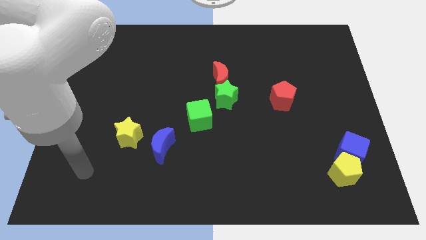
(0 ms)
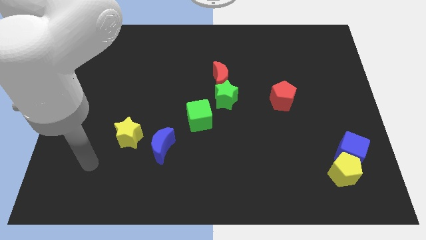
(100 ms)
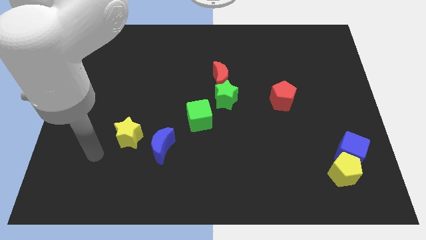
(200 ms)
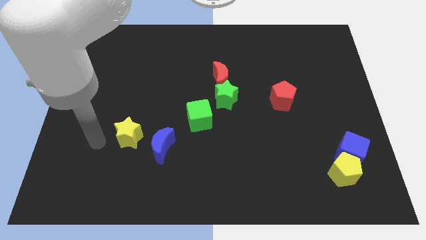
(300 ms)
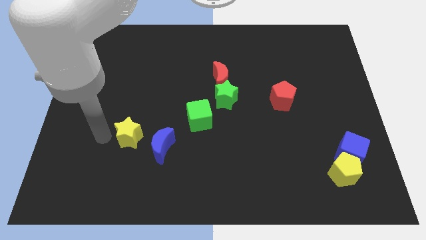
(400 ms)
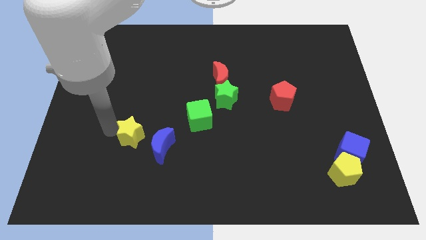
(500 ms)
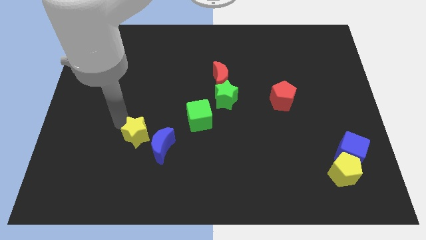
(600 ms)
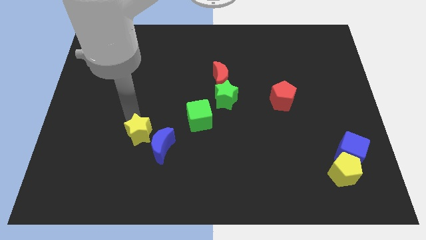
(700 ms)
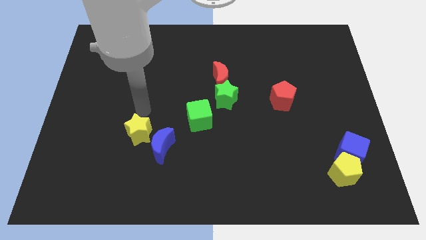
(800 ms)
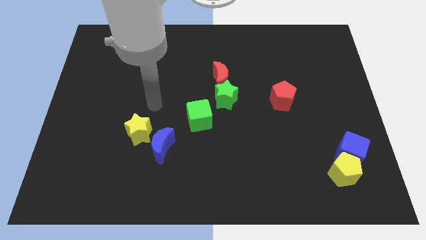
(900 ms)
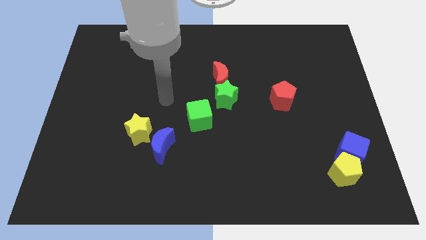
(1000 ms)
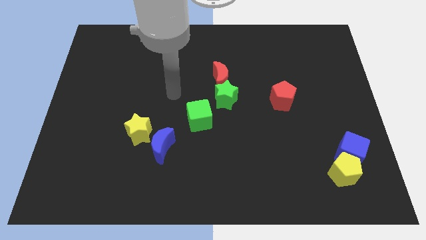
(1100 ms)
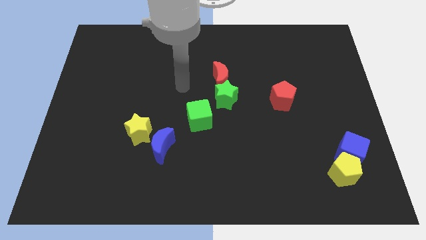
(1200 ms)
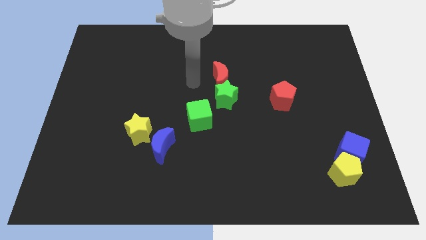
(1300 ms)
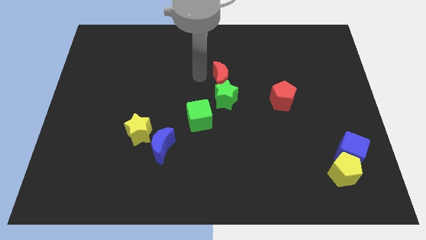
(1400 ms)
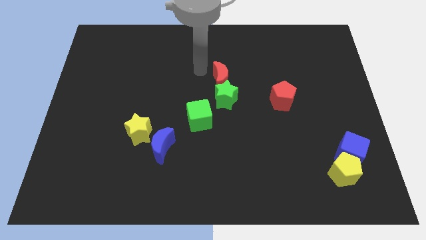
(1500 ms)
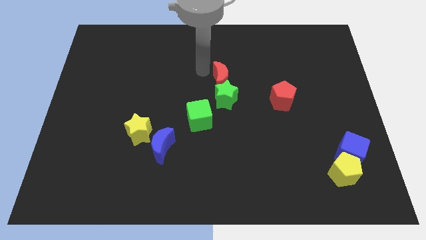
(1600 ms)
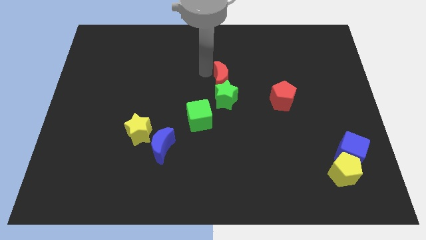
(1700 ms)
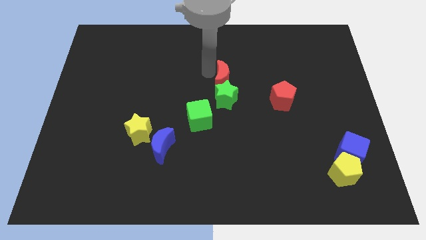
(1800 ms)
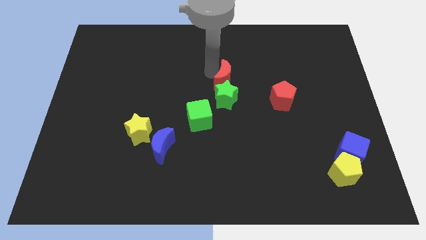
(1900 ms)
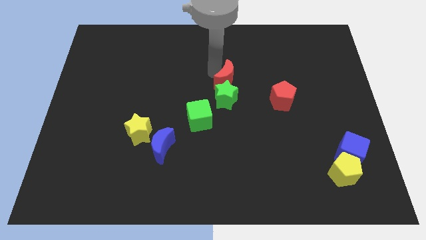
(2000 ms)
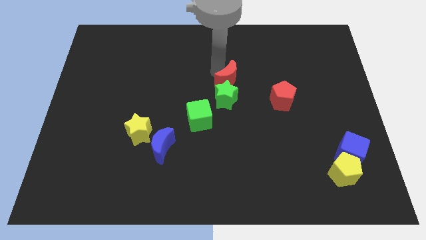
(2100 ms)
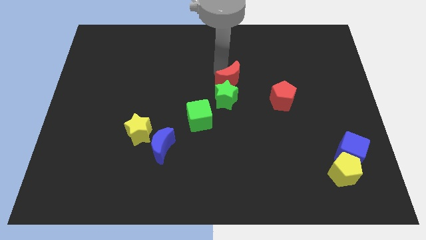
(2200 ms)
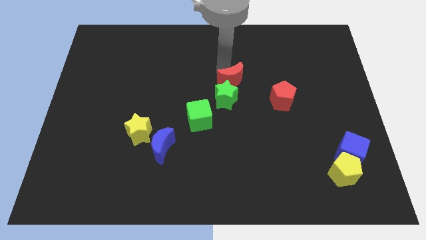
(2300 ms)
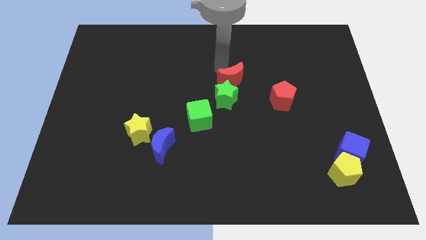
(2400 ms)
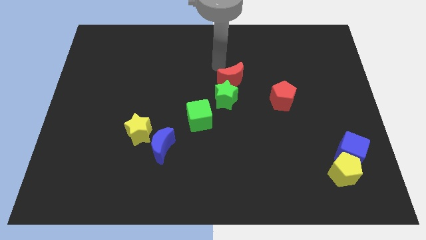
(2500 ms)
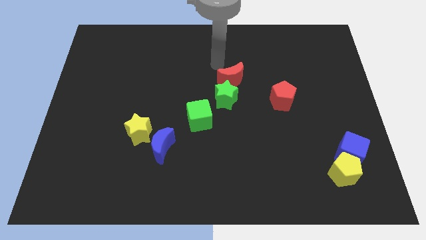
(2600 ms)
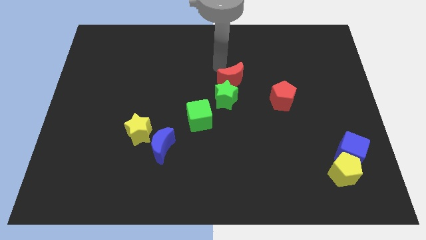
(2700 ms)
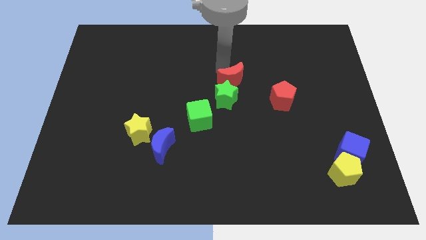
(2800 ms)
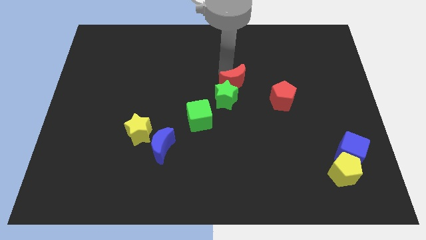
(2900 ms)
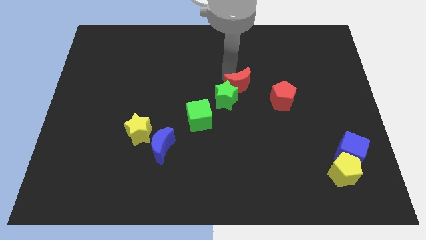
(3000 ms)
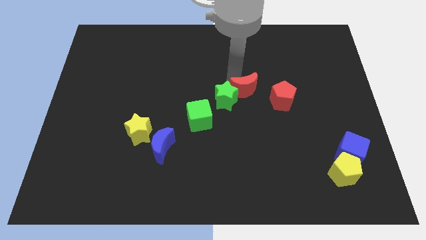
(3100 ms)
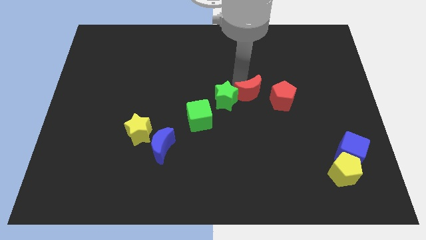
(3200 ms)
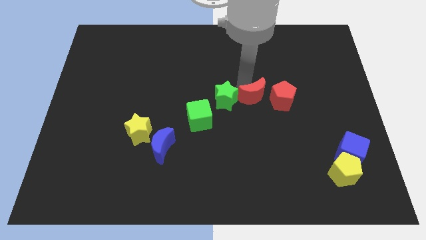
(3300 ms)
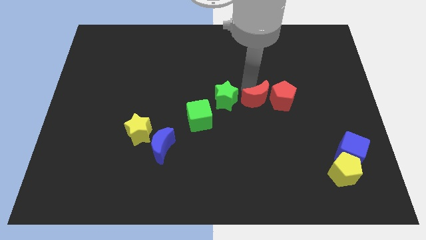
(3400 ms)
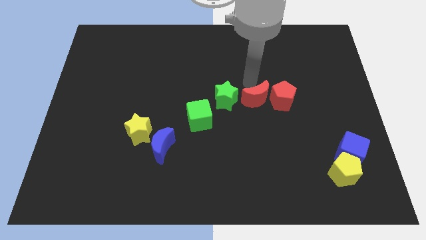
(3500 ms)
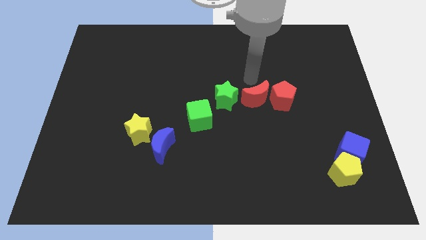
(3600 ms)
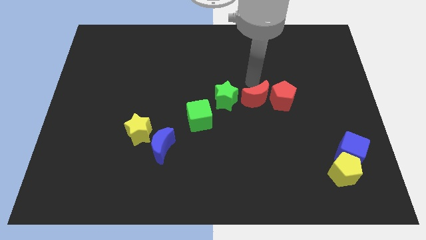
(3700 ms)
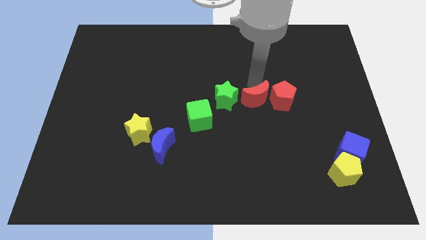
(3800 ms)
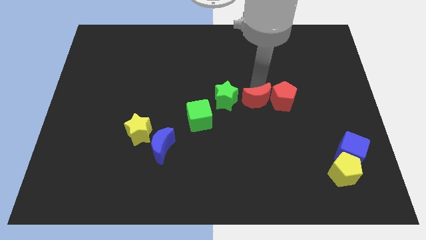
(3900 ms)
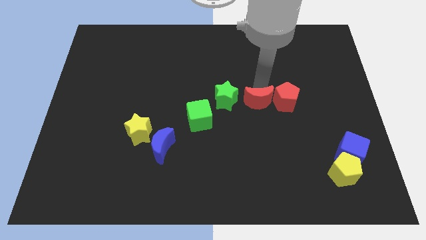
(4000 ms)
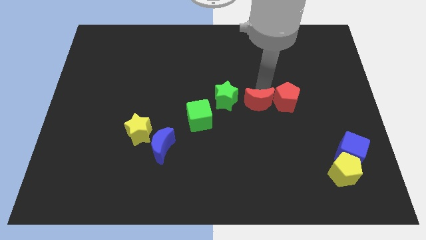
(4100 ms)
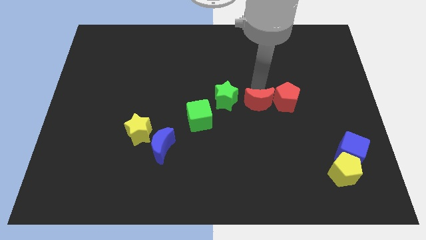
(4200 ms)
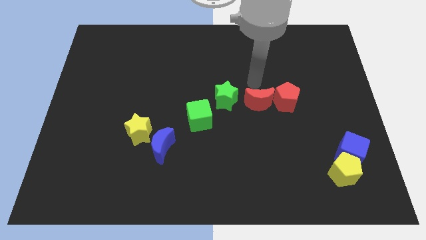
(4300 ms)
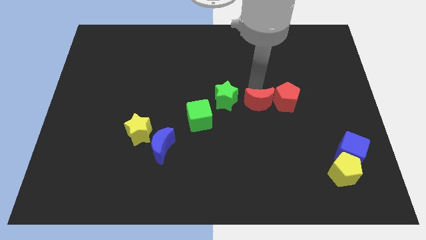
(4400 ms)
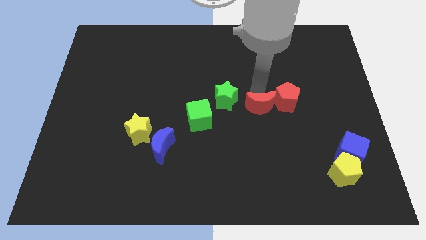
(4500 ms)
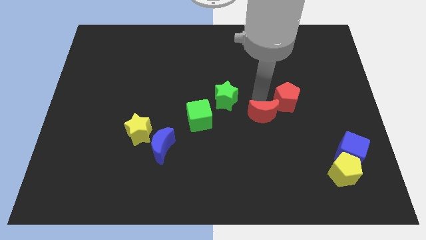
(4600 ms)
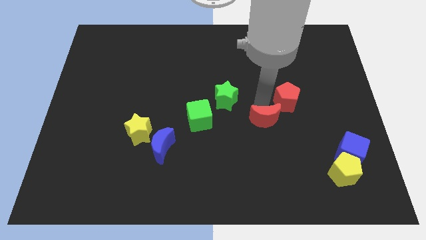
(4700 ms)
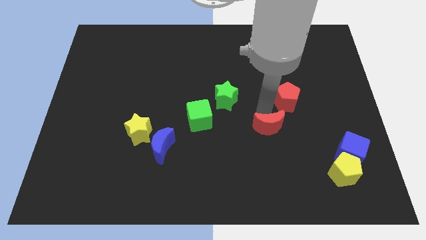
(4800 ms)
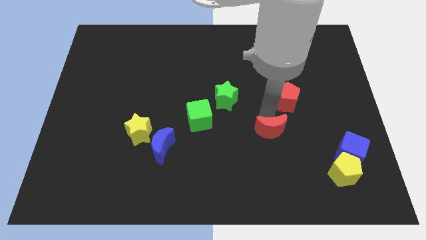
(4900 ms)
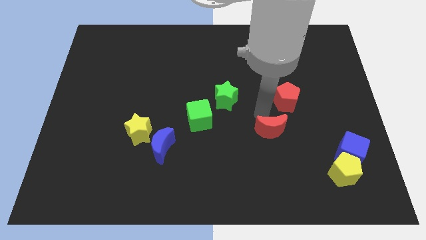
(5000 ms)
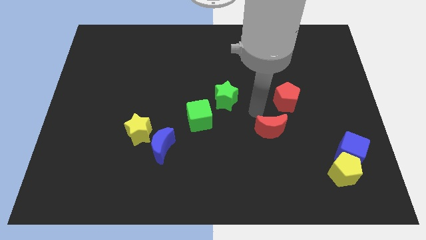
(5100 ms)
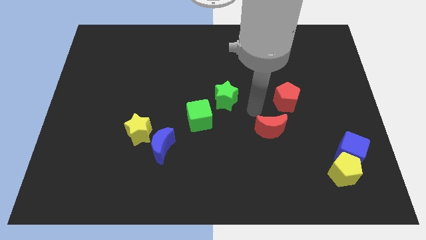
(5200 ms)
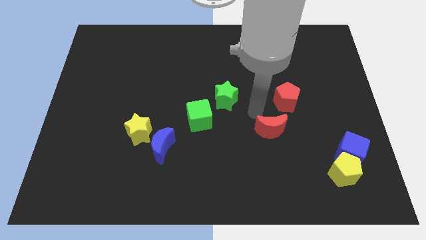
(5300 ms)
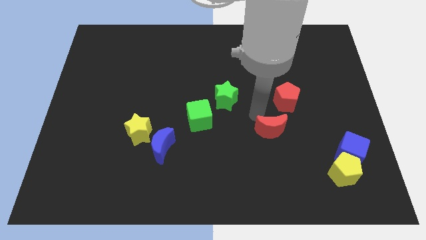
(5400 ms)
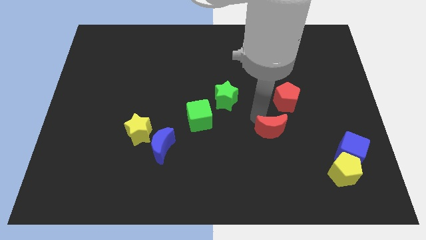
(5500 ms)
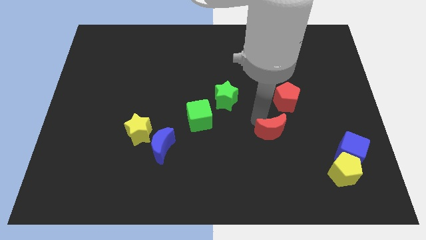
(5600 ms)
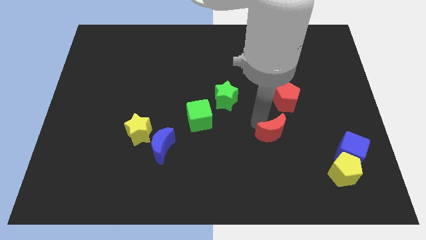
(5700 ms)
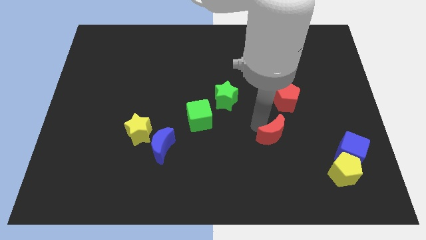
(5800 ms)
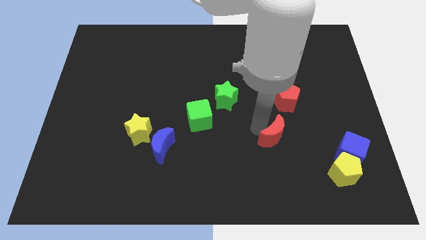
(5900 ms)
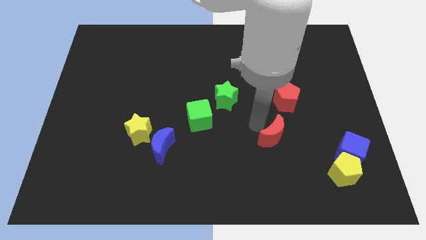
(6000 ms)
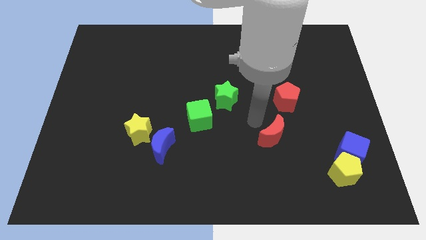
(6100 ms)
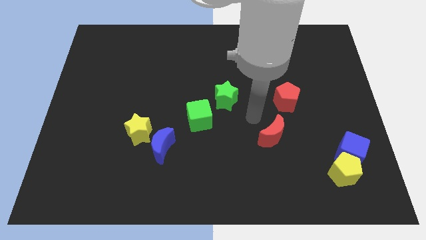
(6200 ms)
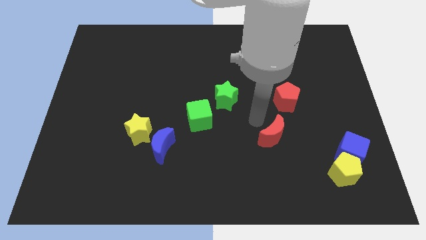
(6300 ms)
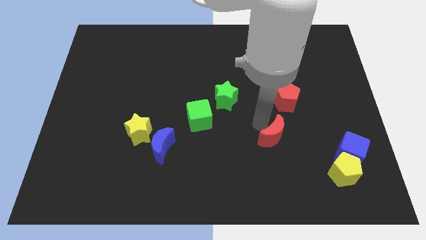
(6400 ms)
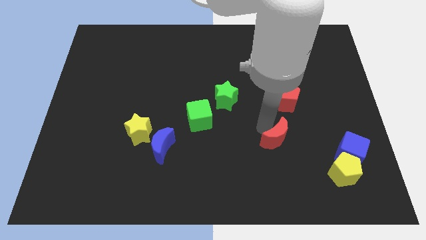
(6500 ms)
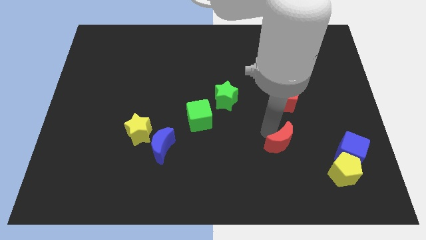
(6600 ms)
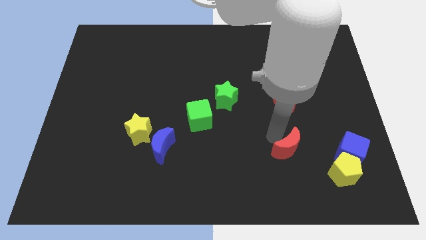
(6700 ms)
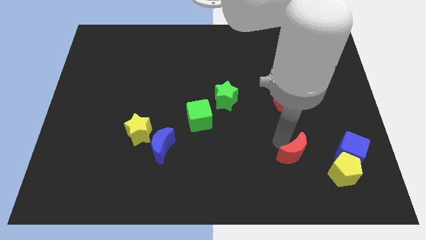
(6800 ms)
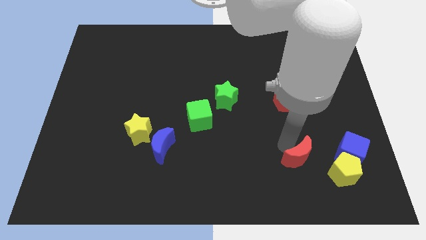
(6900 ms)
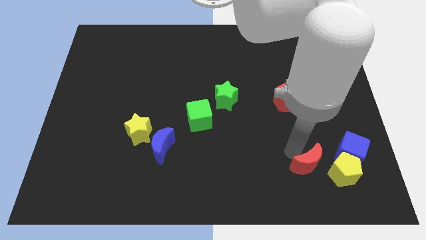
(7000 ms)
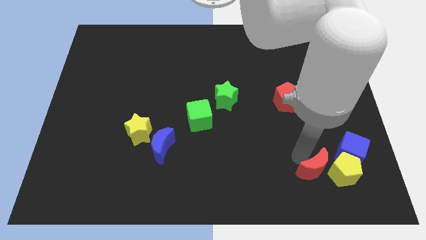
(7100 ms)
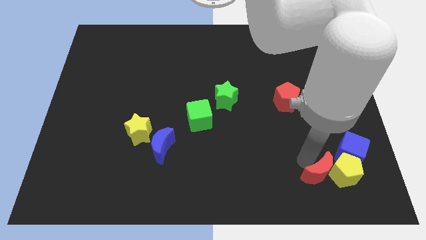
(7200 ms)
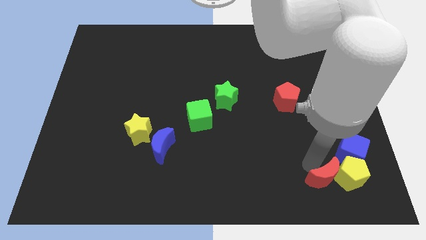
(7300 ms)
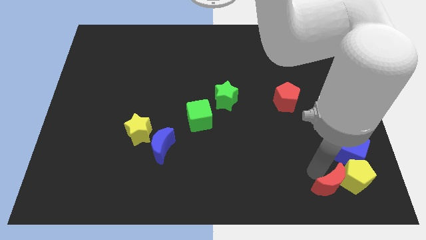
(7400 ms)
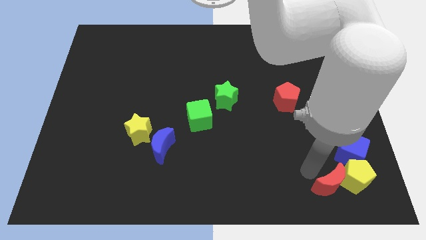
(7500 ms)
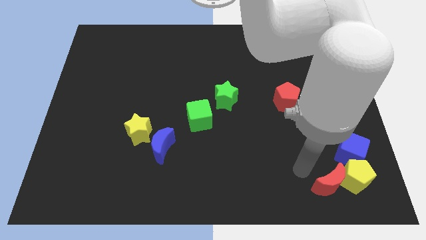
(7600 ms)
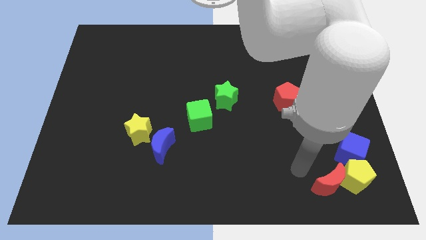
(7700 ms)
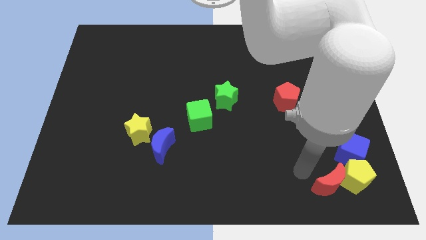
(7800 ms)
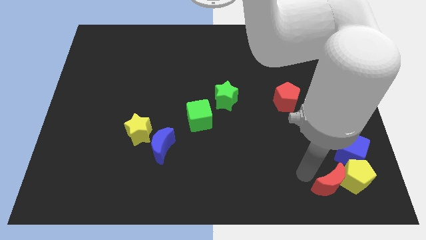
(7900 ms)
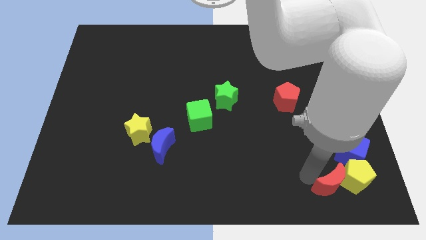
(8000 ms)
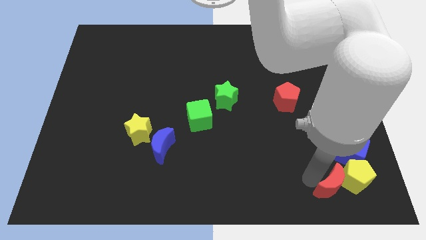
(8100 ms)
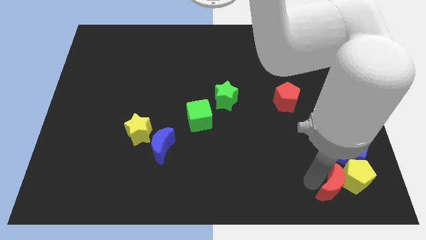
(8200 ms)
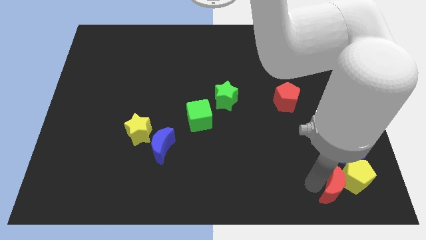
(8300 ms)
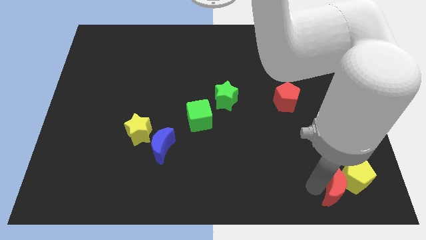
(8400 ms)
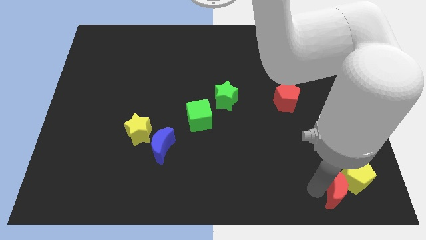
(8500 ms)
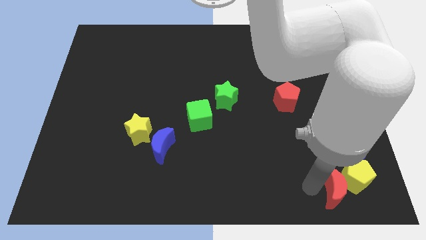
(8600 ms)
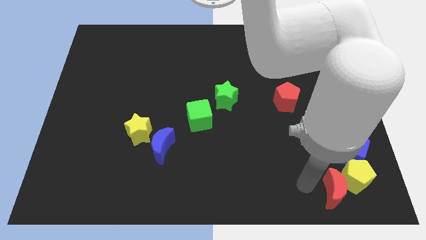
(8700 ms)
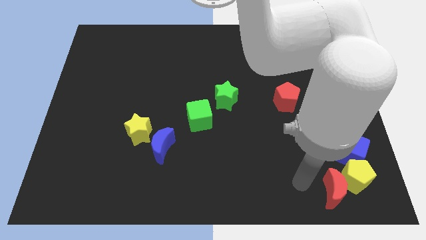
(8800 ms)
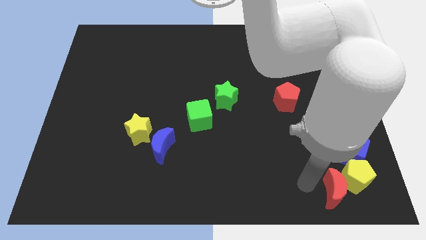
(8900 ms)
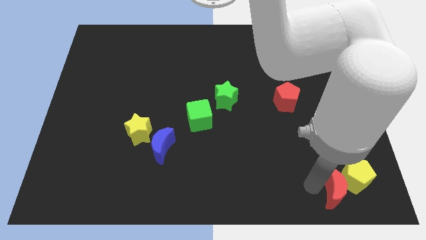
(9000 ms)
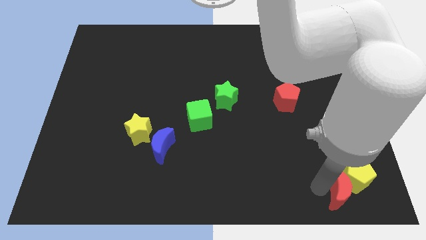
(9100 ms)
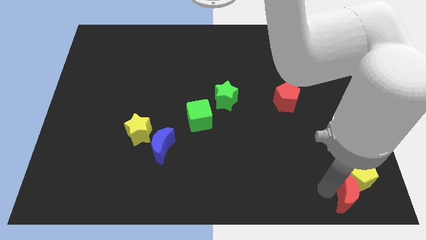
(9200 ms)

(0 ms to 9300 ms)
push the red moon to the bottom right corner
